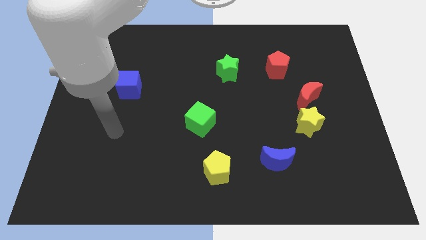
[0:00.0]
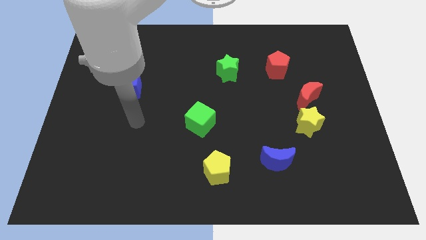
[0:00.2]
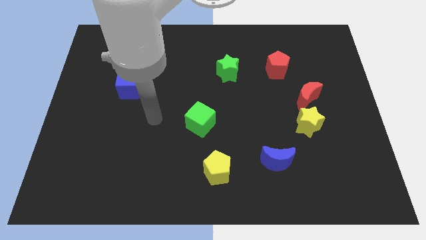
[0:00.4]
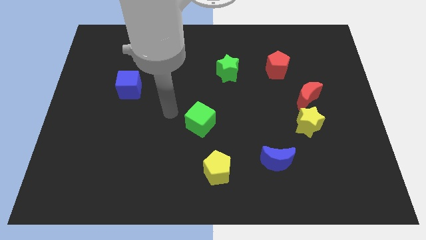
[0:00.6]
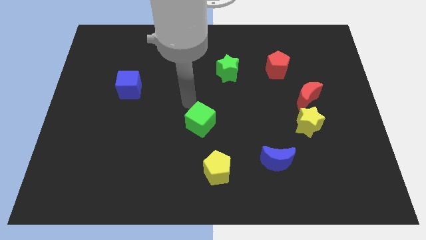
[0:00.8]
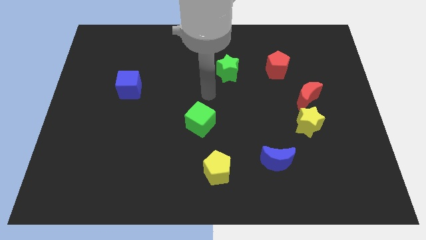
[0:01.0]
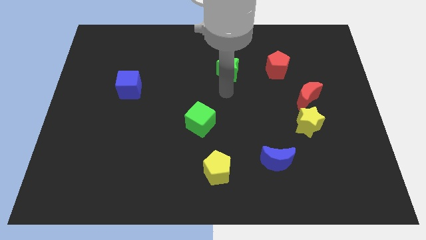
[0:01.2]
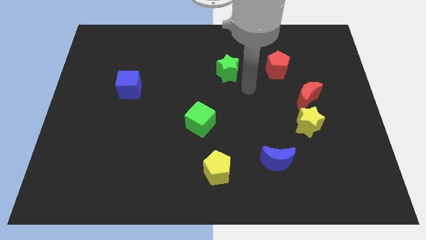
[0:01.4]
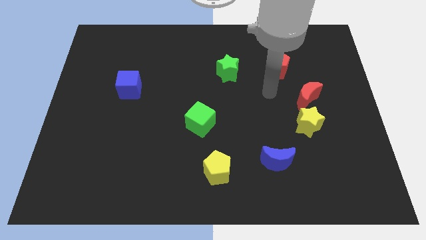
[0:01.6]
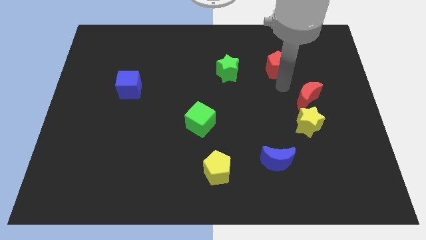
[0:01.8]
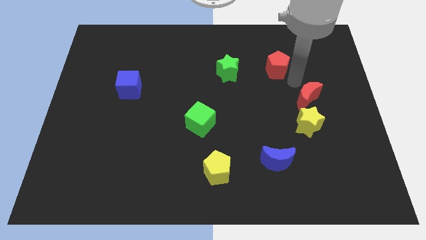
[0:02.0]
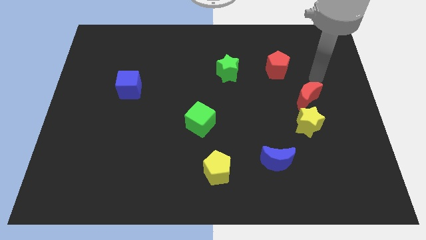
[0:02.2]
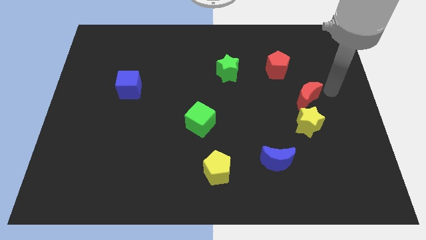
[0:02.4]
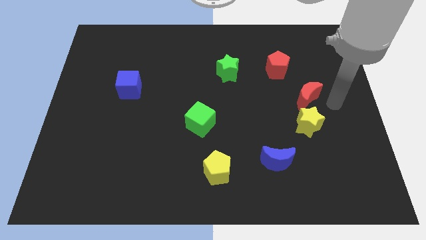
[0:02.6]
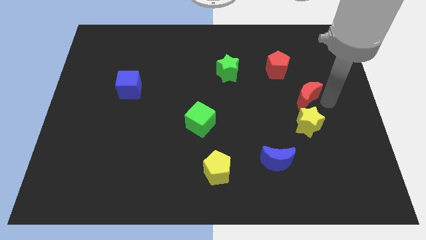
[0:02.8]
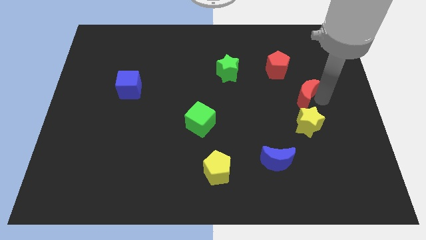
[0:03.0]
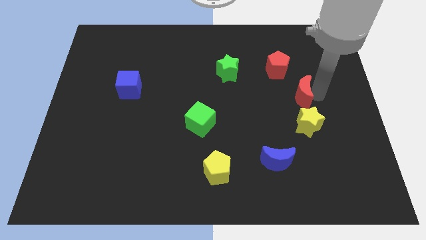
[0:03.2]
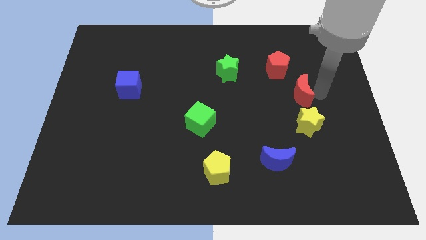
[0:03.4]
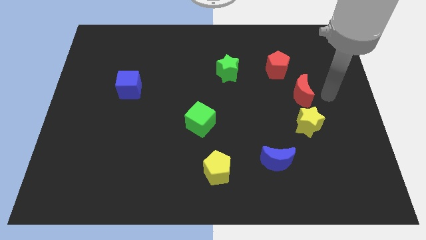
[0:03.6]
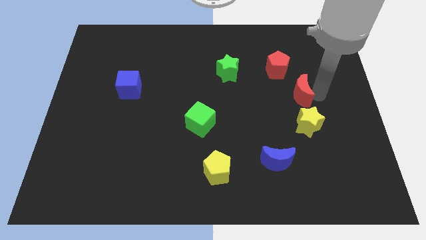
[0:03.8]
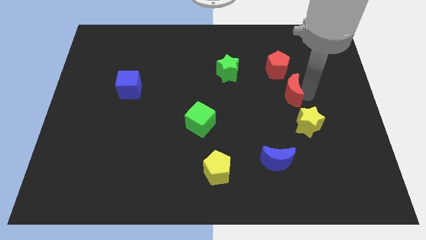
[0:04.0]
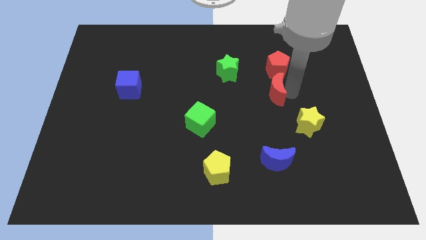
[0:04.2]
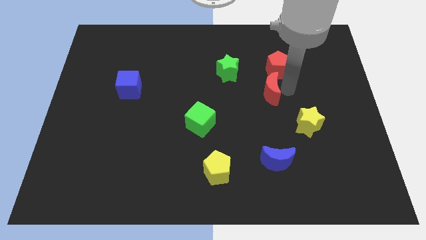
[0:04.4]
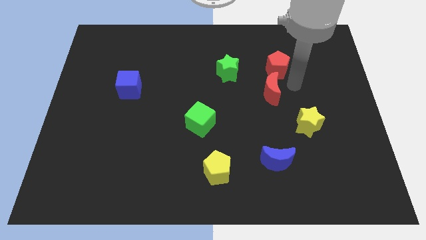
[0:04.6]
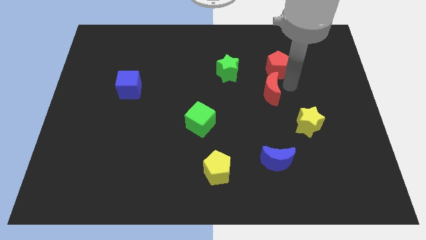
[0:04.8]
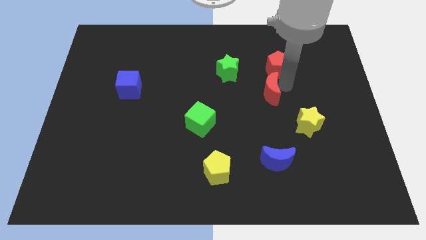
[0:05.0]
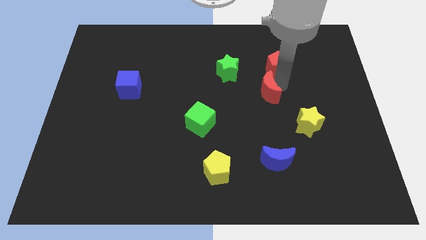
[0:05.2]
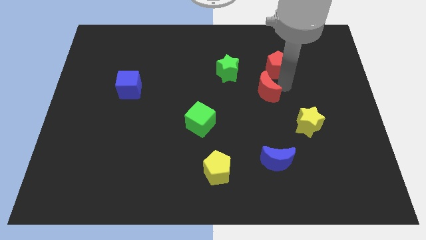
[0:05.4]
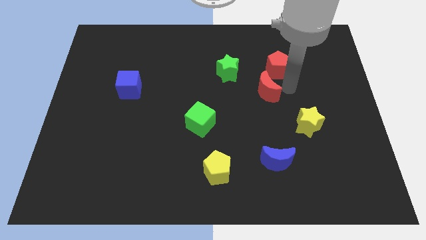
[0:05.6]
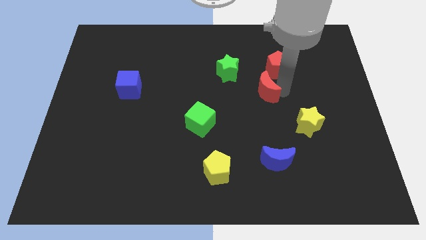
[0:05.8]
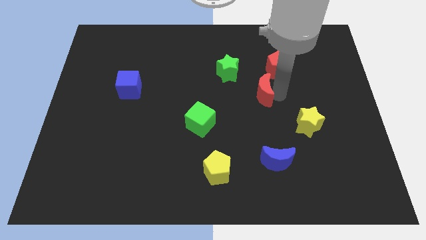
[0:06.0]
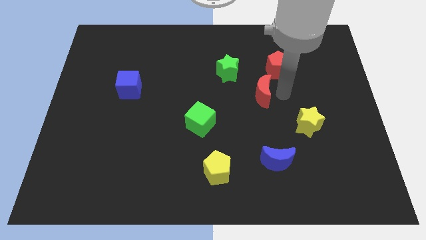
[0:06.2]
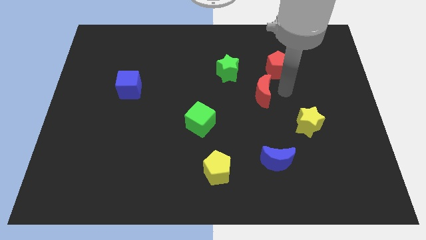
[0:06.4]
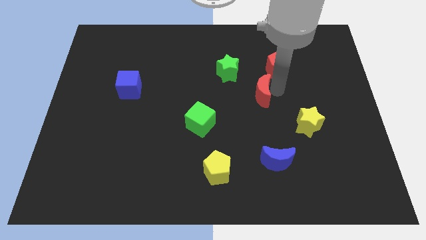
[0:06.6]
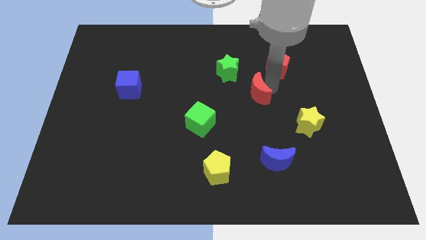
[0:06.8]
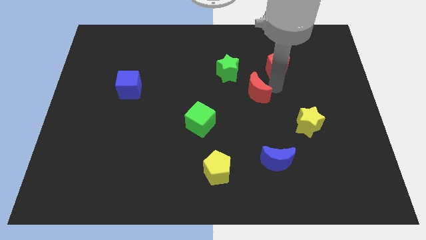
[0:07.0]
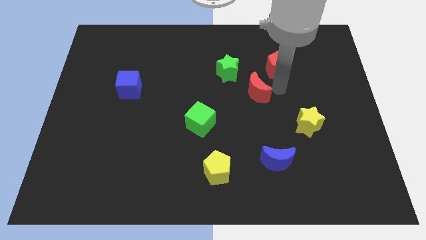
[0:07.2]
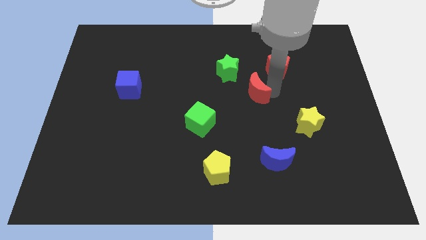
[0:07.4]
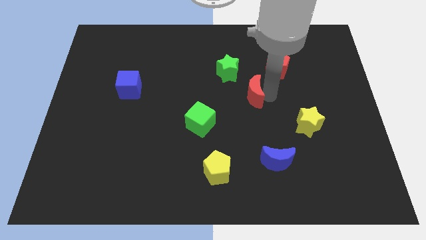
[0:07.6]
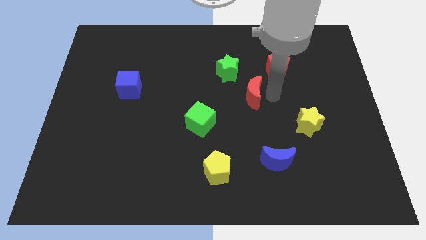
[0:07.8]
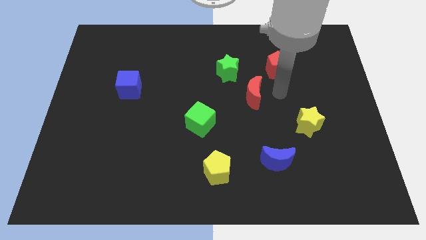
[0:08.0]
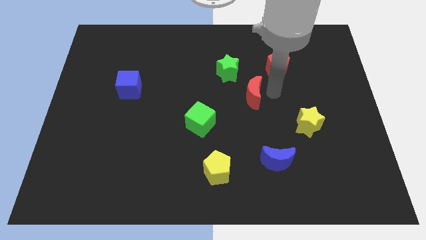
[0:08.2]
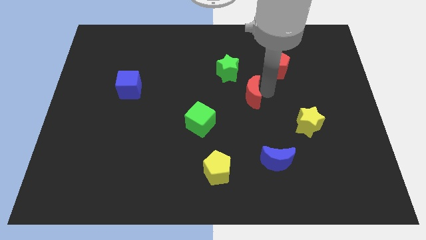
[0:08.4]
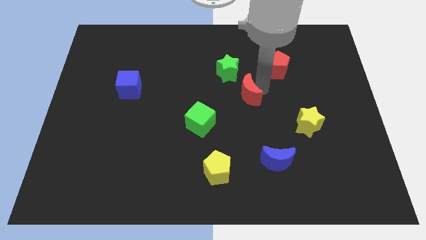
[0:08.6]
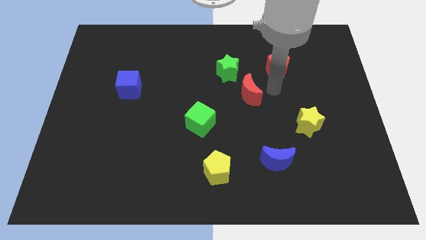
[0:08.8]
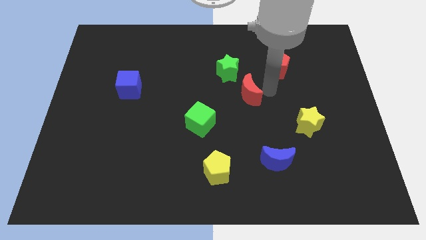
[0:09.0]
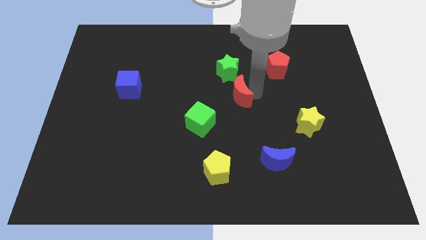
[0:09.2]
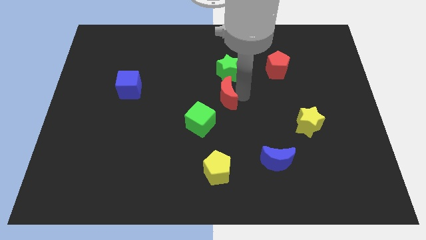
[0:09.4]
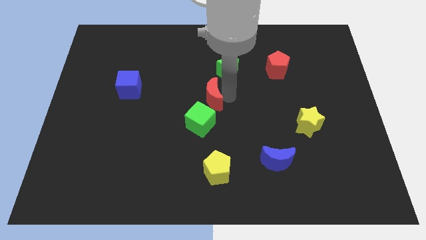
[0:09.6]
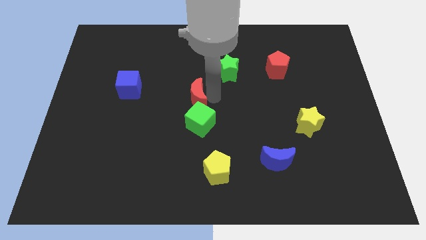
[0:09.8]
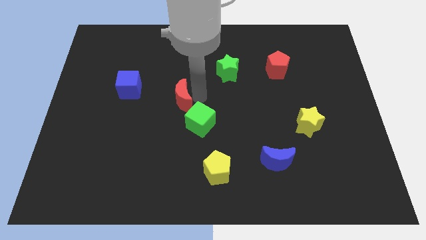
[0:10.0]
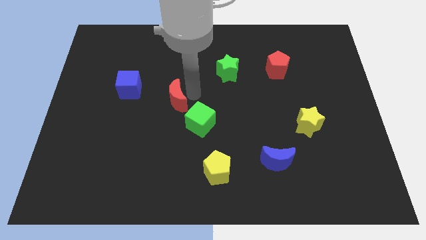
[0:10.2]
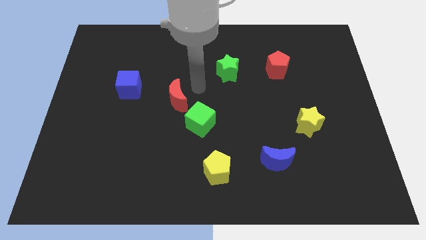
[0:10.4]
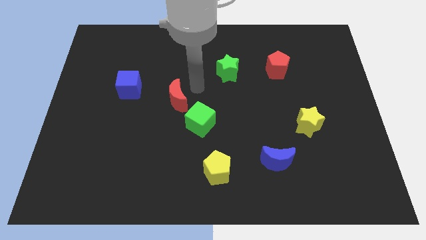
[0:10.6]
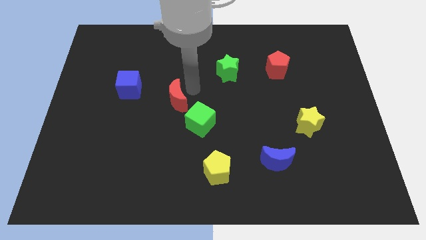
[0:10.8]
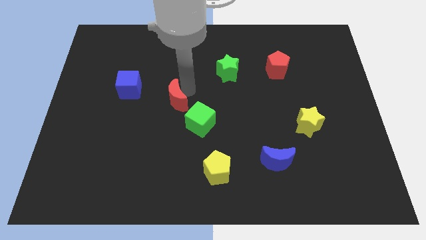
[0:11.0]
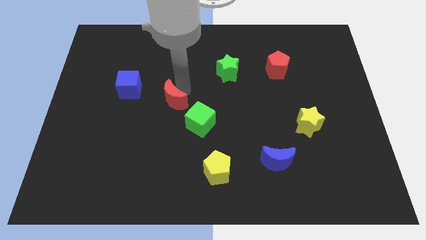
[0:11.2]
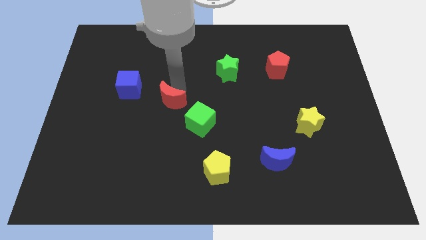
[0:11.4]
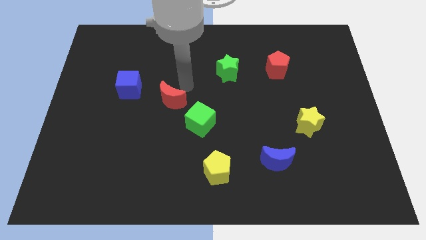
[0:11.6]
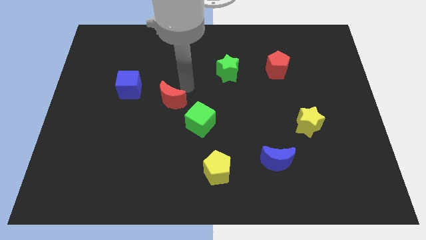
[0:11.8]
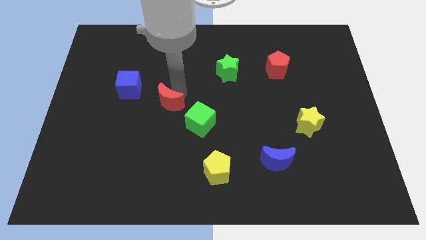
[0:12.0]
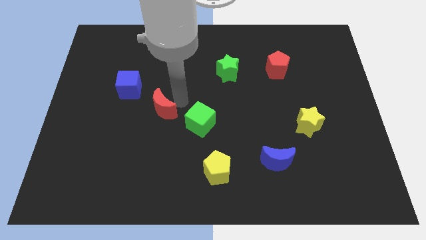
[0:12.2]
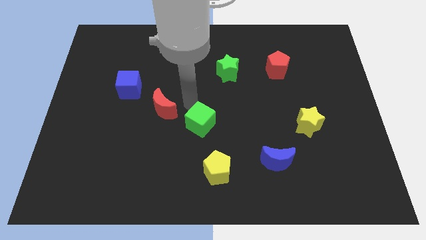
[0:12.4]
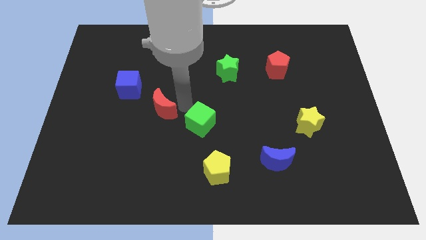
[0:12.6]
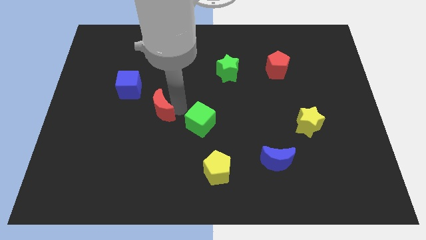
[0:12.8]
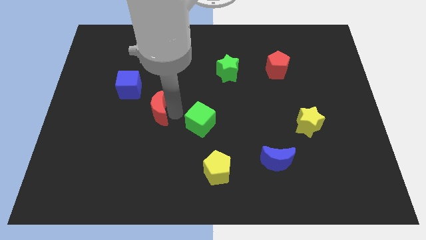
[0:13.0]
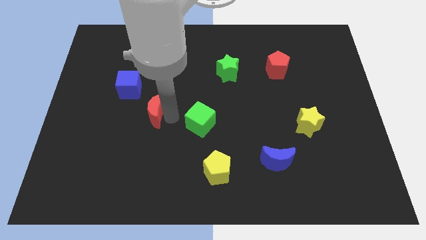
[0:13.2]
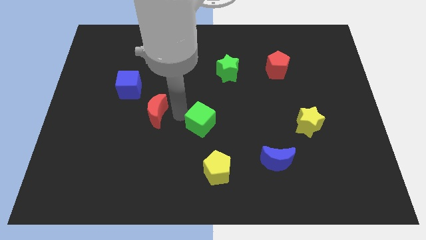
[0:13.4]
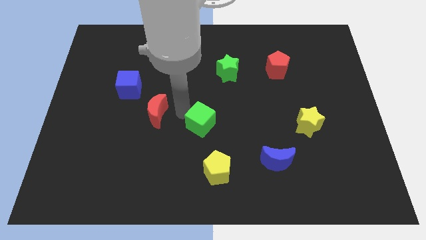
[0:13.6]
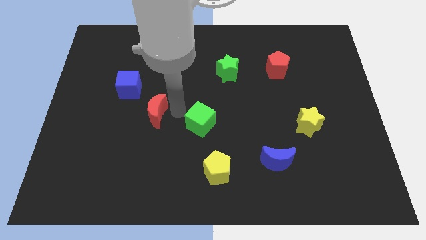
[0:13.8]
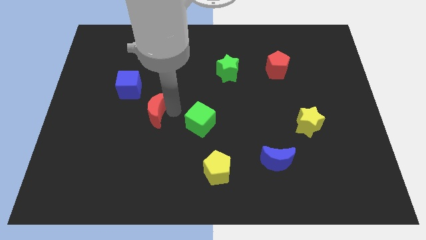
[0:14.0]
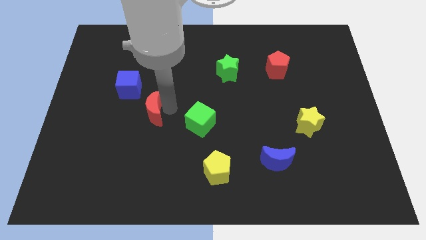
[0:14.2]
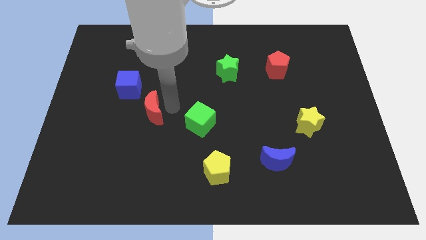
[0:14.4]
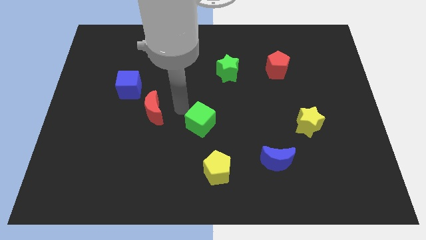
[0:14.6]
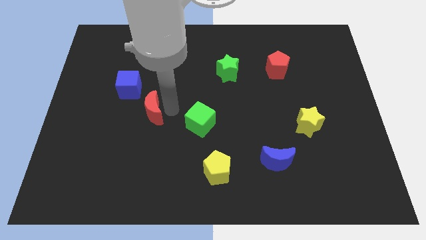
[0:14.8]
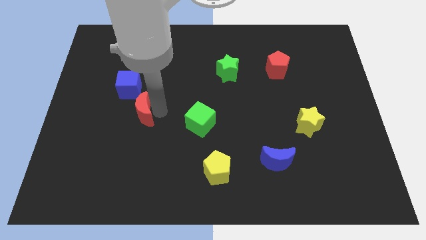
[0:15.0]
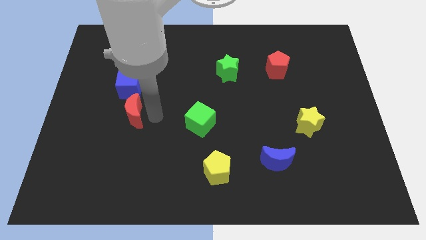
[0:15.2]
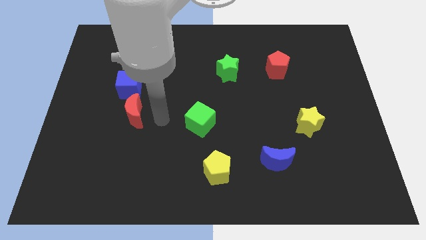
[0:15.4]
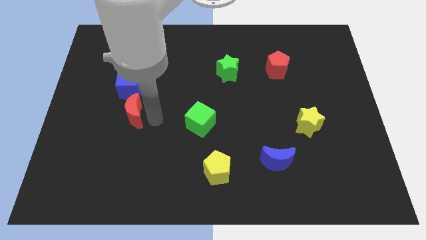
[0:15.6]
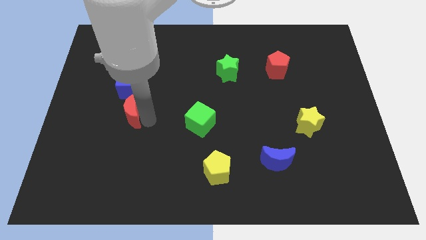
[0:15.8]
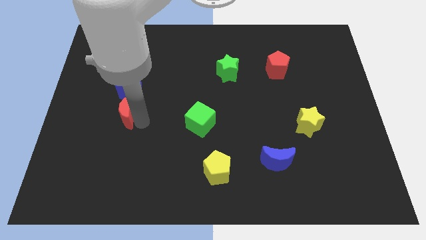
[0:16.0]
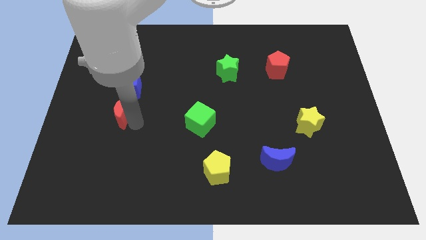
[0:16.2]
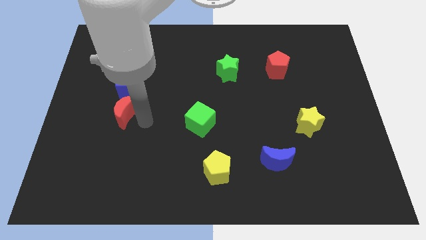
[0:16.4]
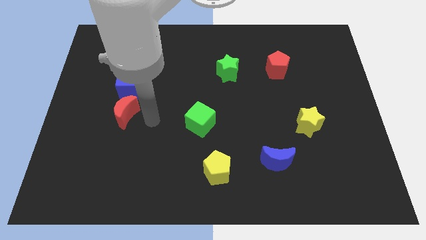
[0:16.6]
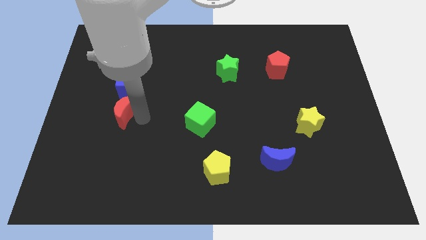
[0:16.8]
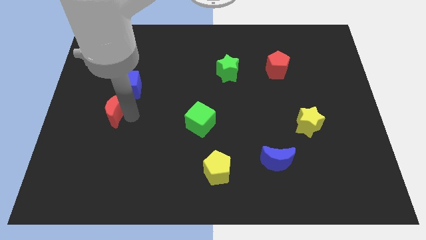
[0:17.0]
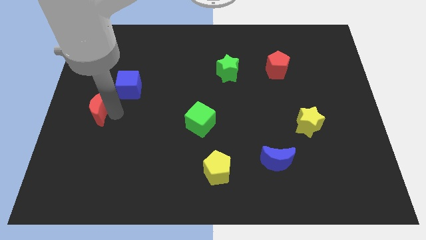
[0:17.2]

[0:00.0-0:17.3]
slide the red moon to the left side
